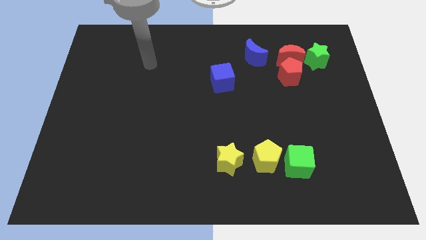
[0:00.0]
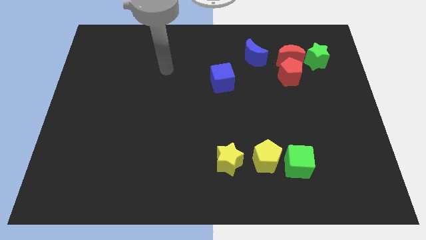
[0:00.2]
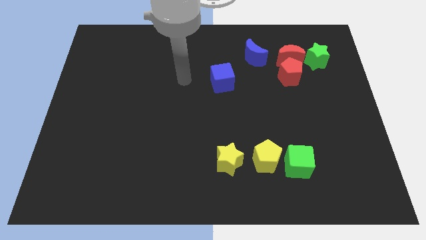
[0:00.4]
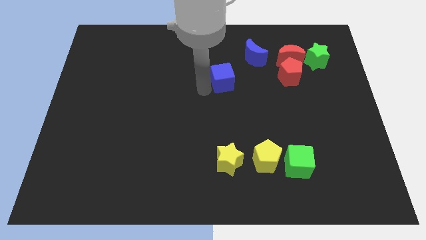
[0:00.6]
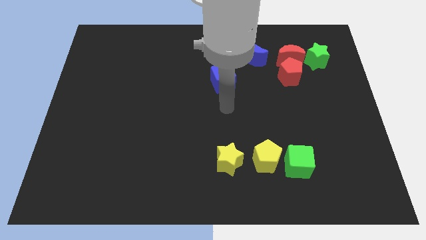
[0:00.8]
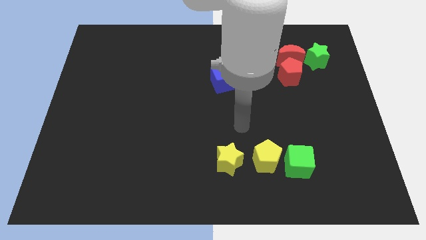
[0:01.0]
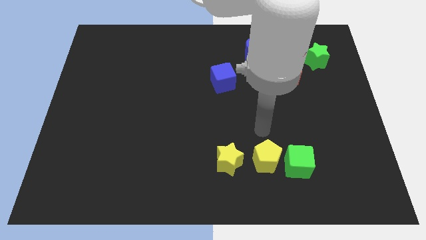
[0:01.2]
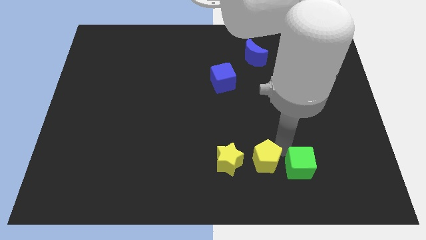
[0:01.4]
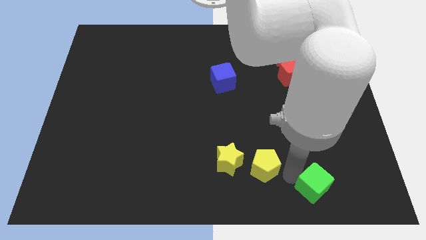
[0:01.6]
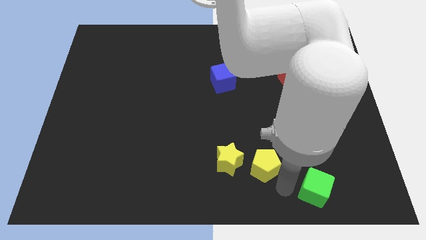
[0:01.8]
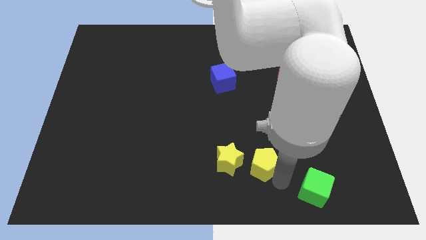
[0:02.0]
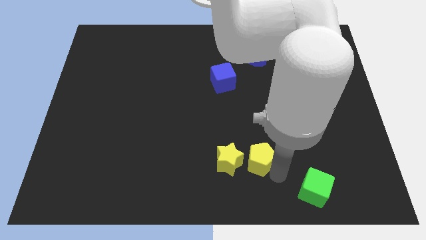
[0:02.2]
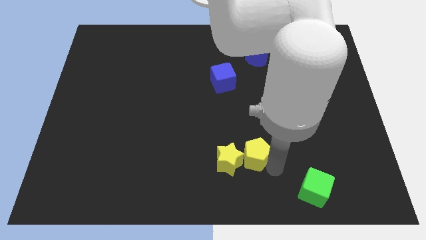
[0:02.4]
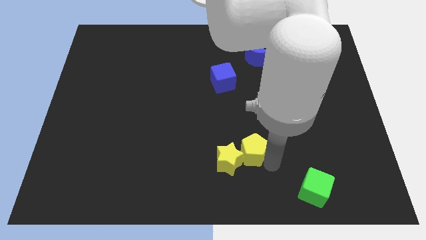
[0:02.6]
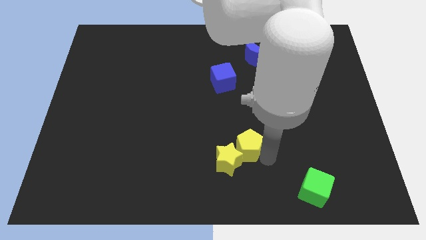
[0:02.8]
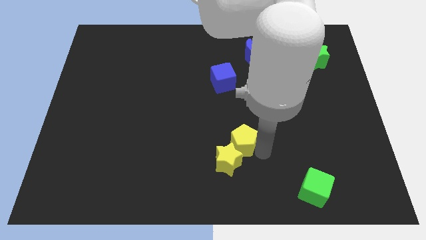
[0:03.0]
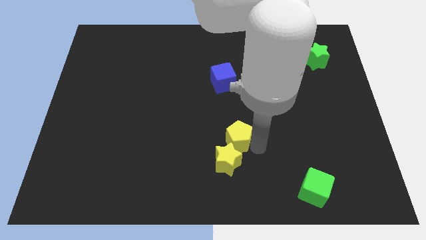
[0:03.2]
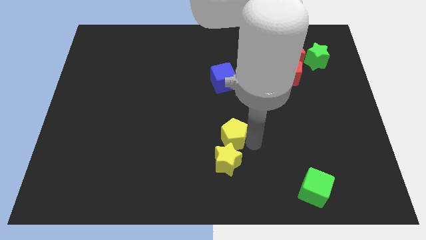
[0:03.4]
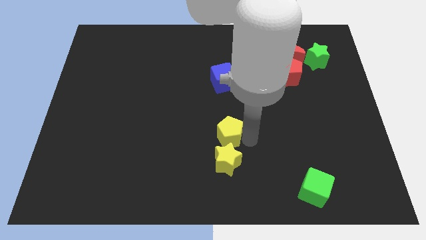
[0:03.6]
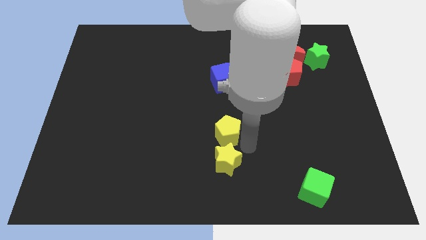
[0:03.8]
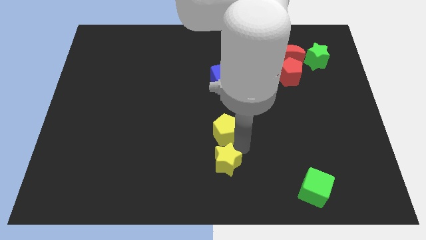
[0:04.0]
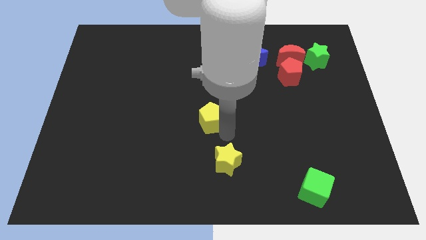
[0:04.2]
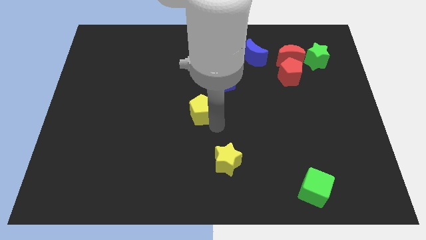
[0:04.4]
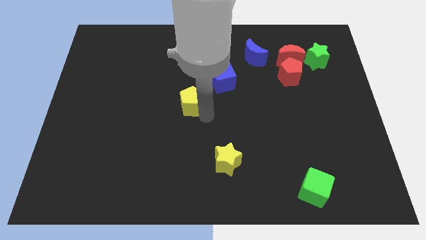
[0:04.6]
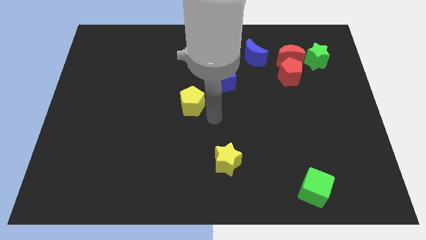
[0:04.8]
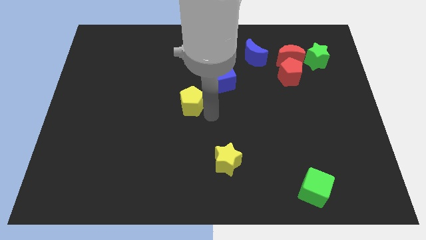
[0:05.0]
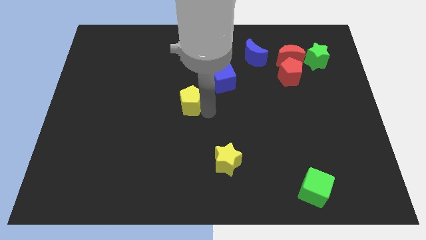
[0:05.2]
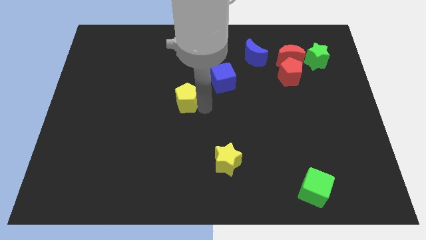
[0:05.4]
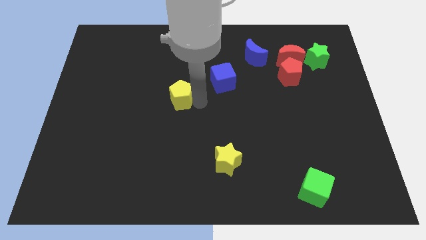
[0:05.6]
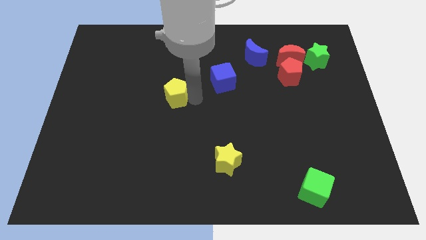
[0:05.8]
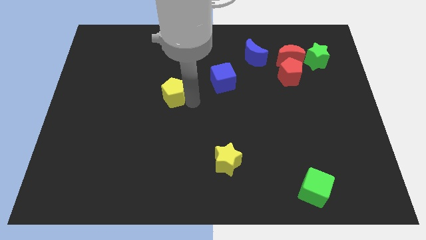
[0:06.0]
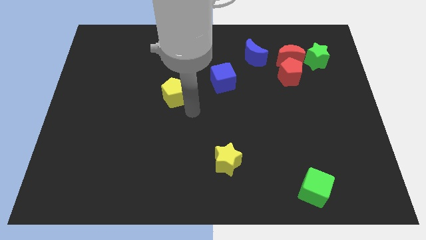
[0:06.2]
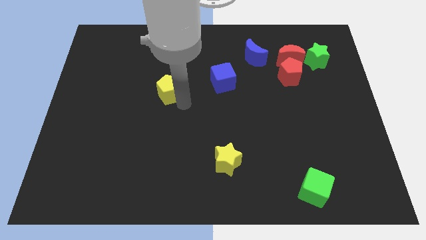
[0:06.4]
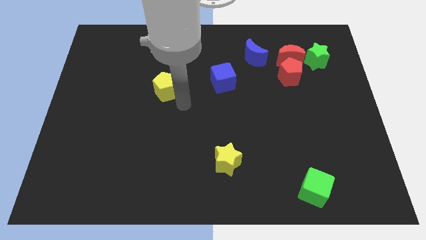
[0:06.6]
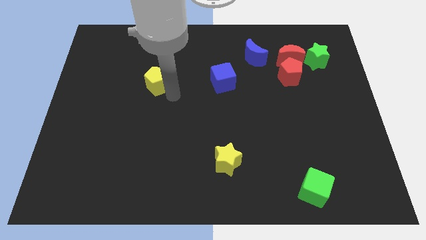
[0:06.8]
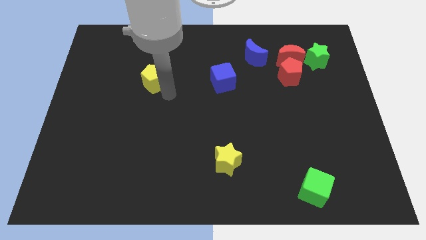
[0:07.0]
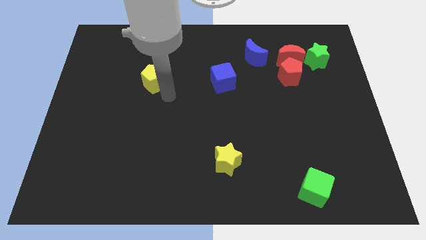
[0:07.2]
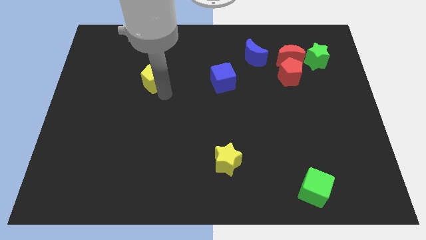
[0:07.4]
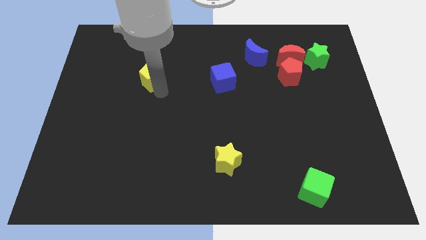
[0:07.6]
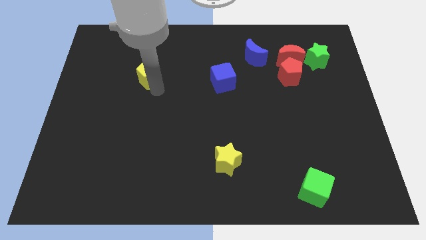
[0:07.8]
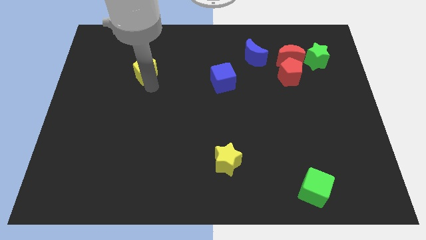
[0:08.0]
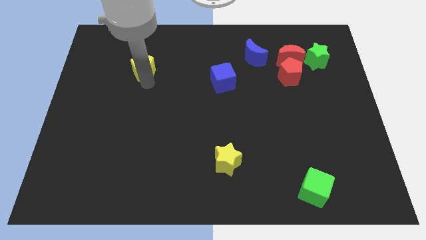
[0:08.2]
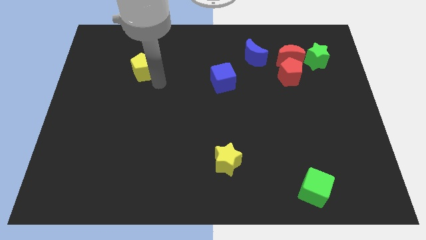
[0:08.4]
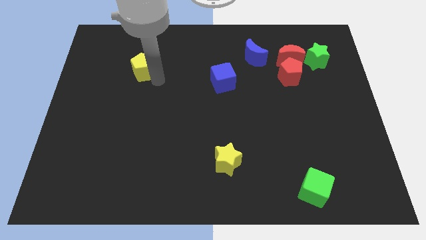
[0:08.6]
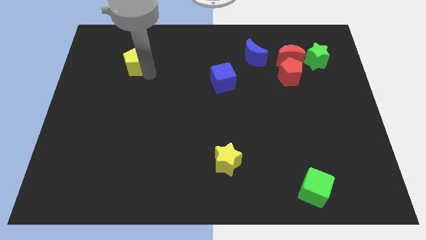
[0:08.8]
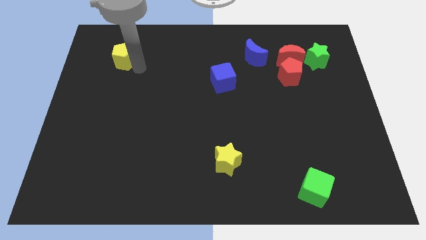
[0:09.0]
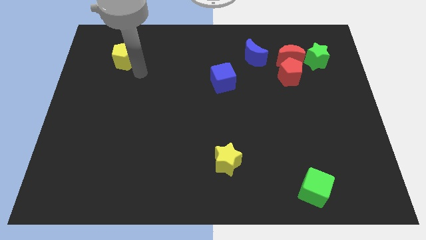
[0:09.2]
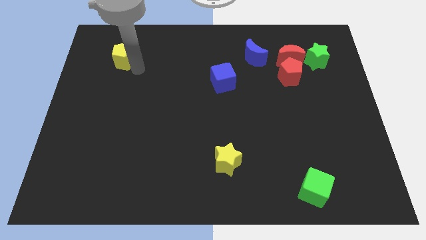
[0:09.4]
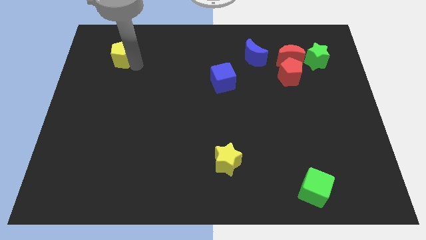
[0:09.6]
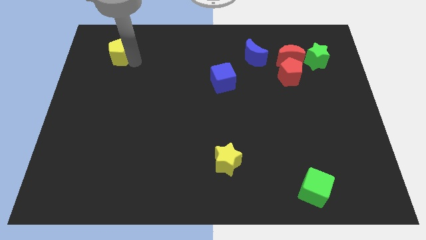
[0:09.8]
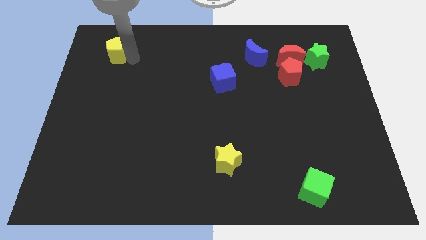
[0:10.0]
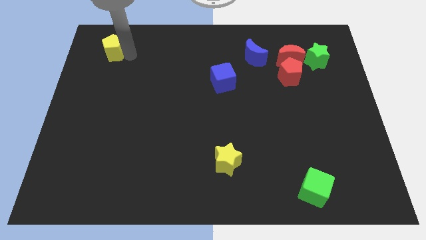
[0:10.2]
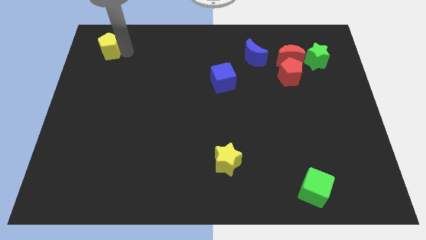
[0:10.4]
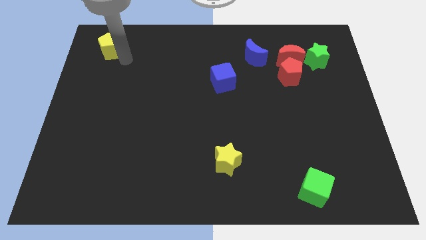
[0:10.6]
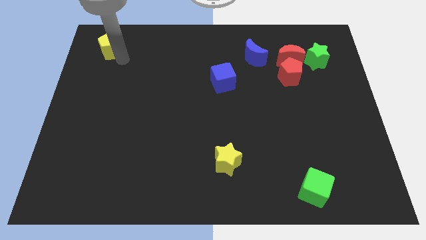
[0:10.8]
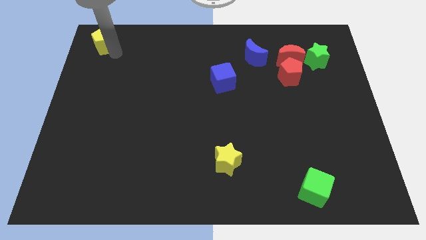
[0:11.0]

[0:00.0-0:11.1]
put the yellow pentagon to the top left corner
